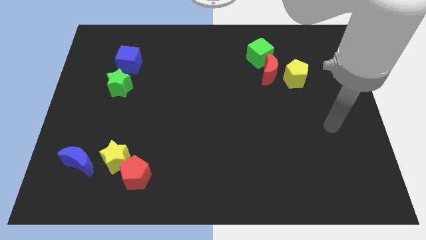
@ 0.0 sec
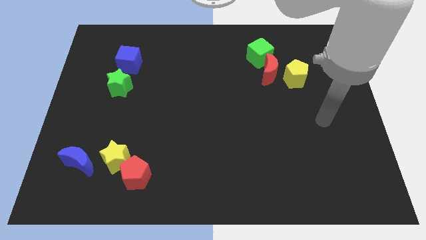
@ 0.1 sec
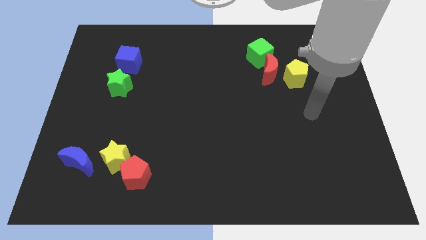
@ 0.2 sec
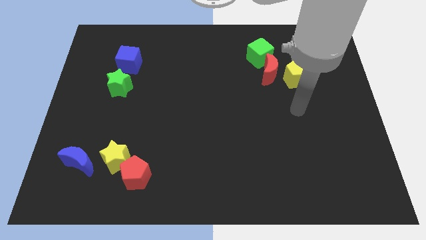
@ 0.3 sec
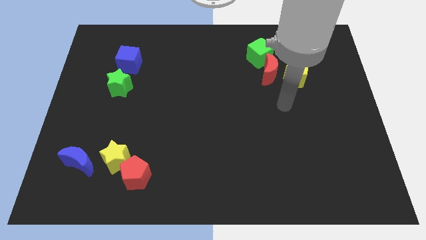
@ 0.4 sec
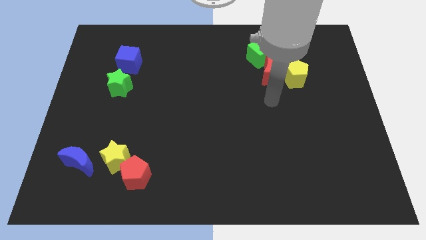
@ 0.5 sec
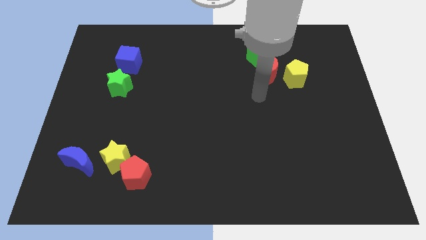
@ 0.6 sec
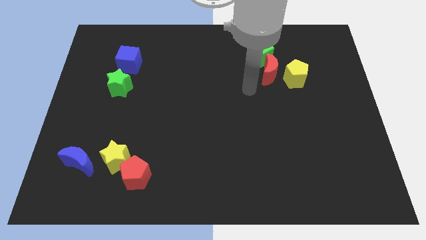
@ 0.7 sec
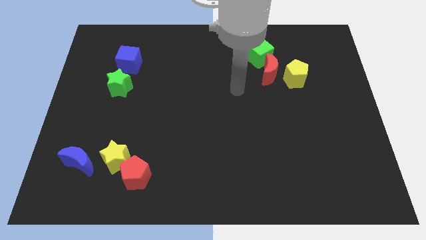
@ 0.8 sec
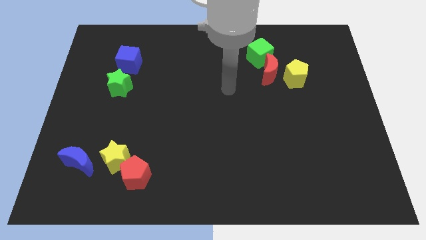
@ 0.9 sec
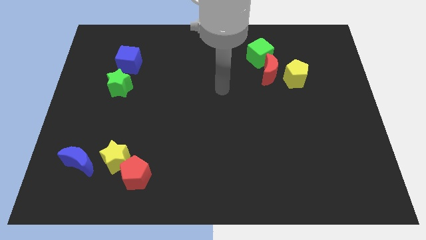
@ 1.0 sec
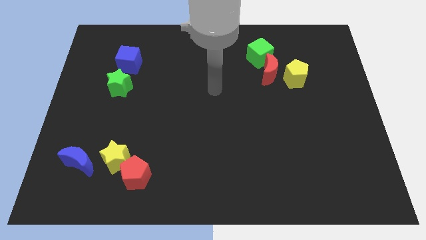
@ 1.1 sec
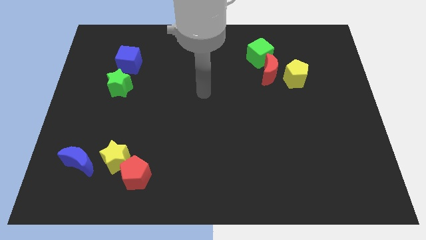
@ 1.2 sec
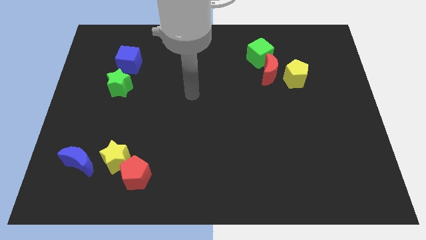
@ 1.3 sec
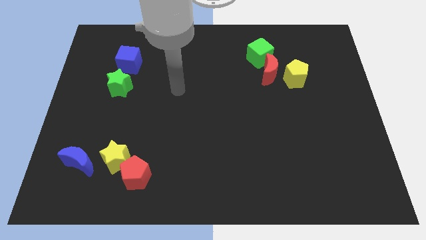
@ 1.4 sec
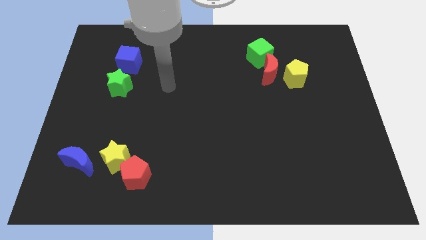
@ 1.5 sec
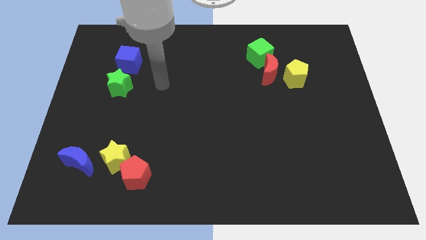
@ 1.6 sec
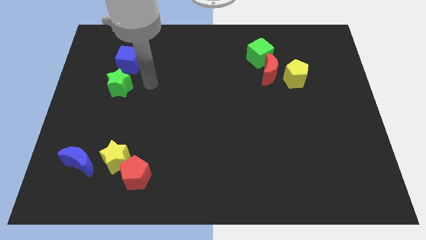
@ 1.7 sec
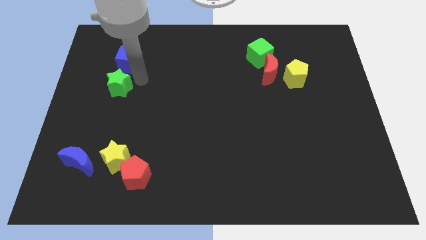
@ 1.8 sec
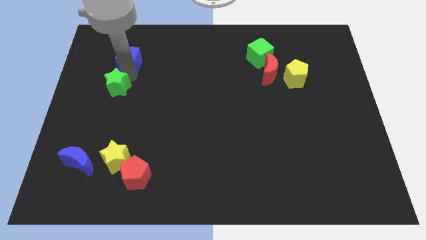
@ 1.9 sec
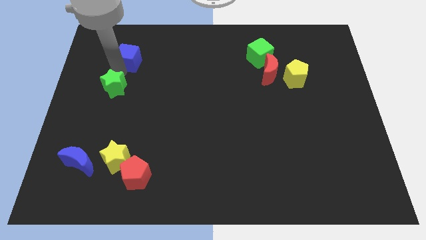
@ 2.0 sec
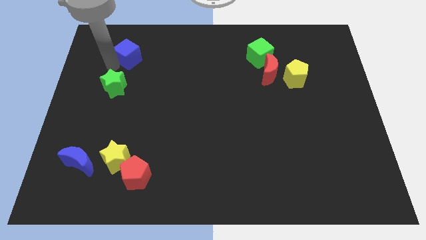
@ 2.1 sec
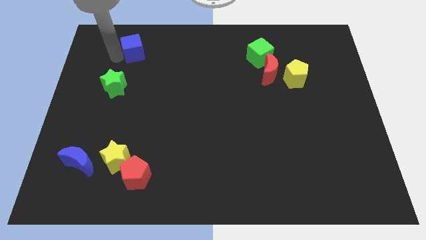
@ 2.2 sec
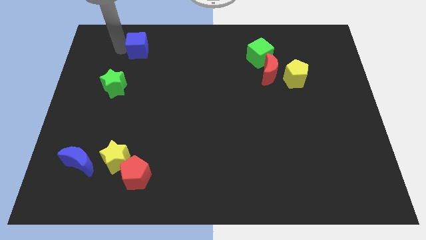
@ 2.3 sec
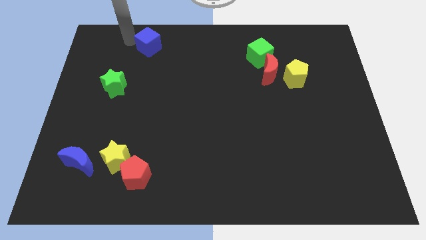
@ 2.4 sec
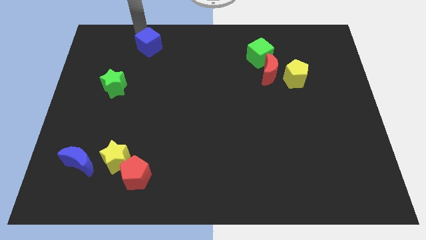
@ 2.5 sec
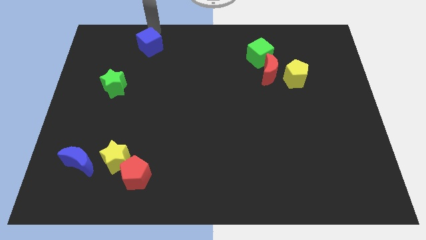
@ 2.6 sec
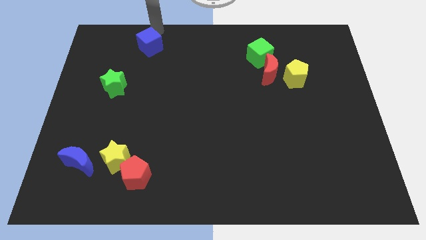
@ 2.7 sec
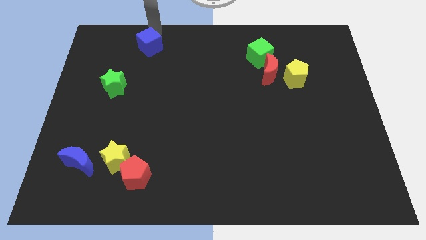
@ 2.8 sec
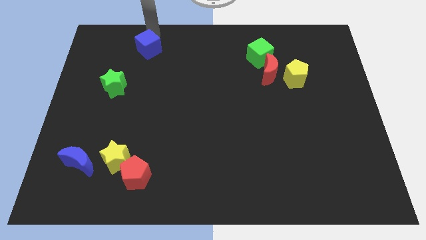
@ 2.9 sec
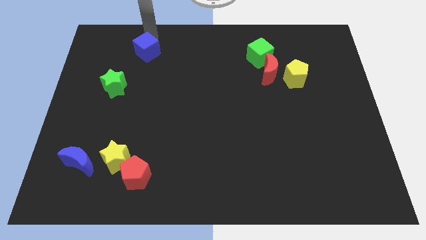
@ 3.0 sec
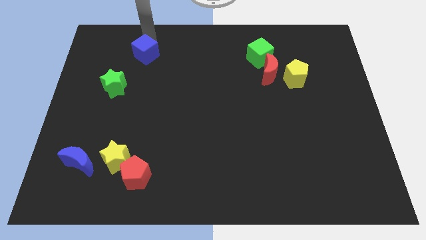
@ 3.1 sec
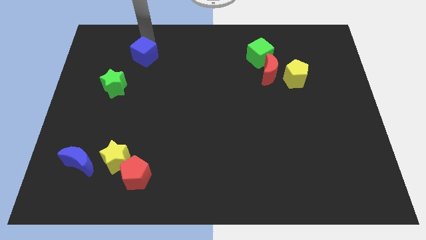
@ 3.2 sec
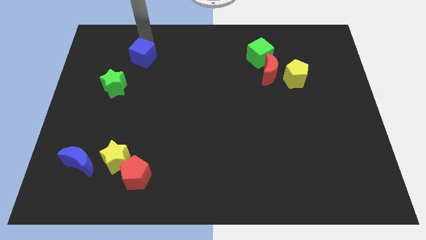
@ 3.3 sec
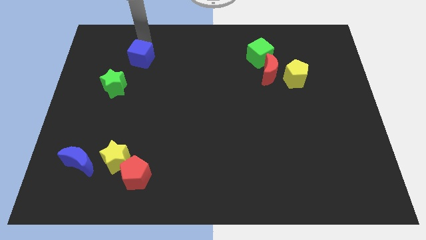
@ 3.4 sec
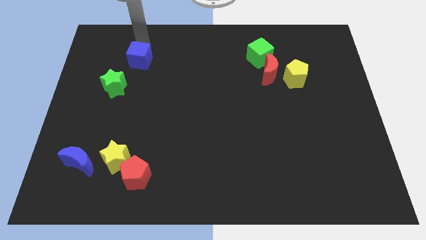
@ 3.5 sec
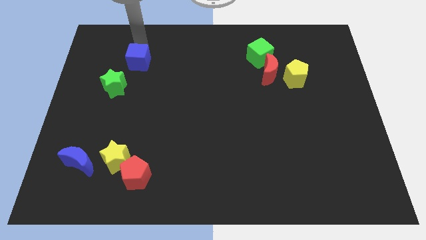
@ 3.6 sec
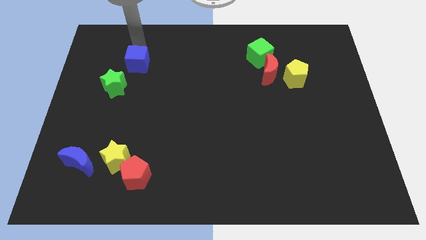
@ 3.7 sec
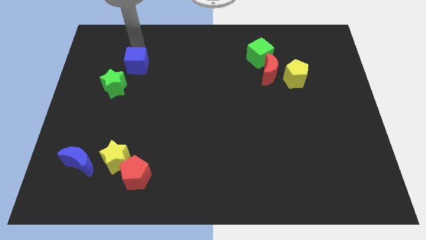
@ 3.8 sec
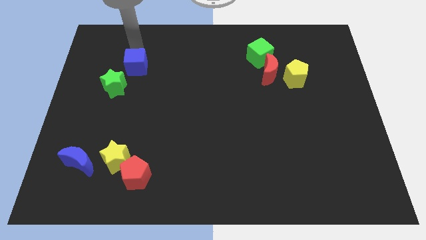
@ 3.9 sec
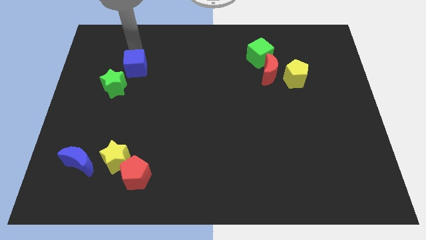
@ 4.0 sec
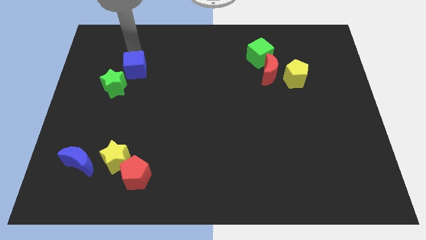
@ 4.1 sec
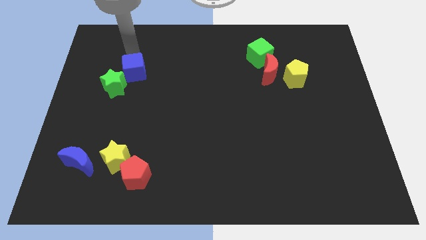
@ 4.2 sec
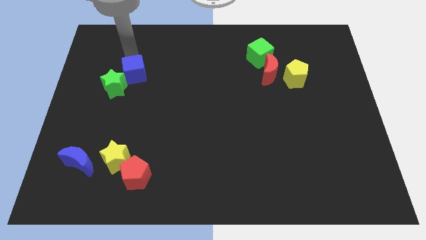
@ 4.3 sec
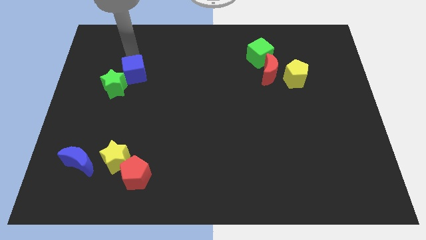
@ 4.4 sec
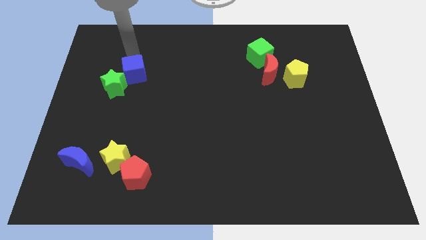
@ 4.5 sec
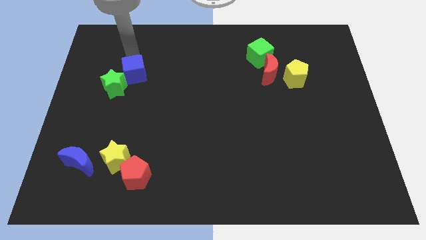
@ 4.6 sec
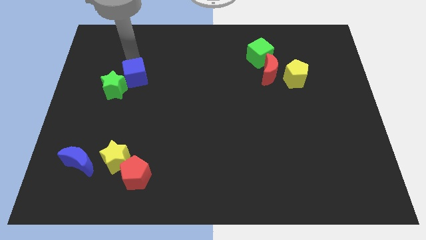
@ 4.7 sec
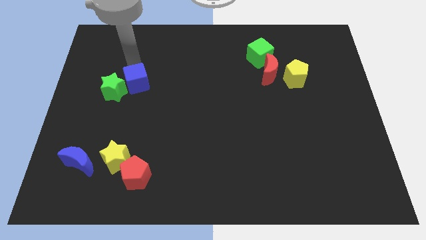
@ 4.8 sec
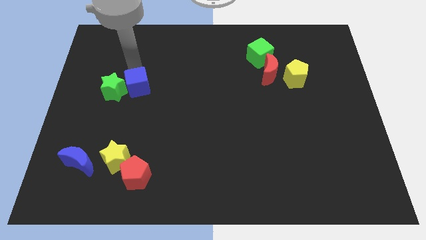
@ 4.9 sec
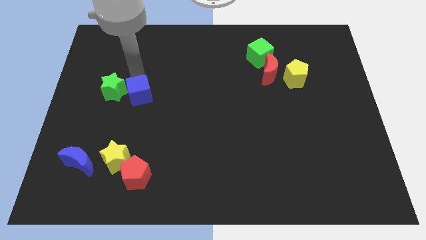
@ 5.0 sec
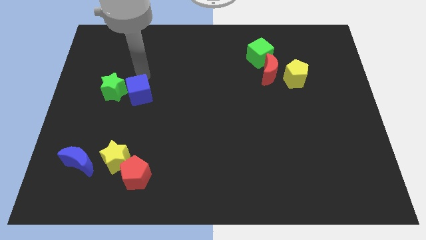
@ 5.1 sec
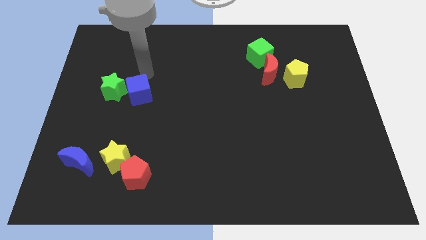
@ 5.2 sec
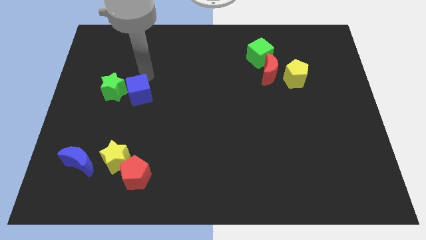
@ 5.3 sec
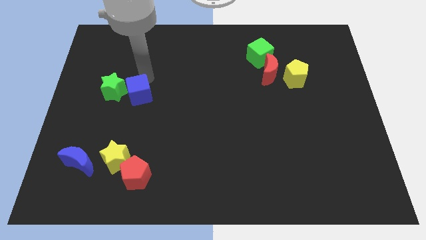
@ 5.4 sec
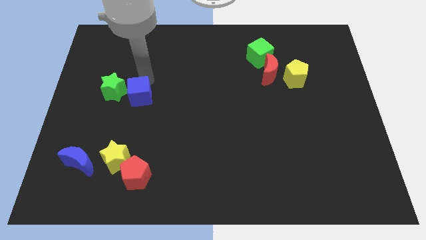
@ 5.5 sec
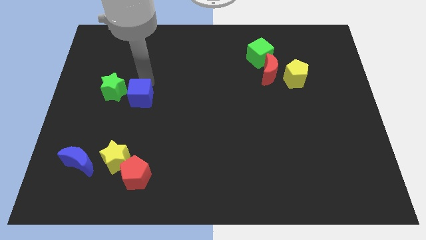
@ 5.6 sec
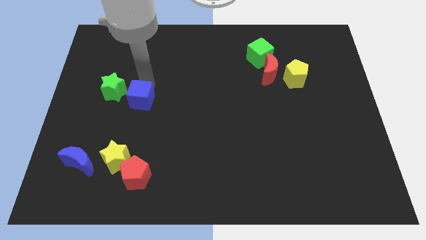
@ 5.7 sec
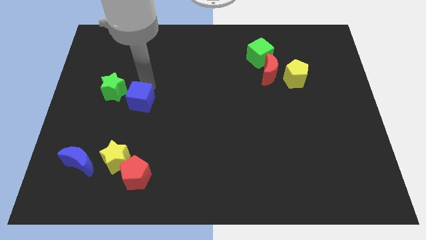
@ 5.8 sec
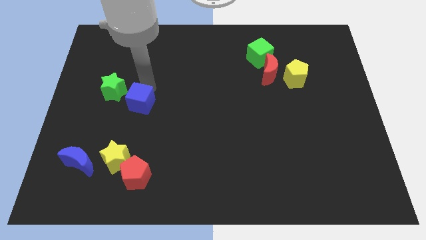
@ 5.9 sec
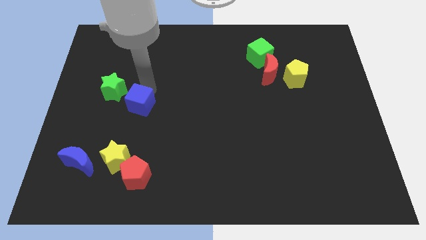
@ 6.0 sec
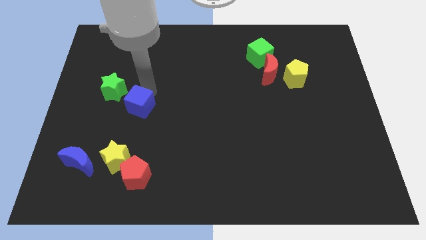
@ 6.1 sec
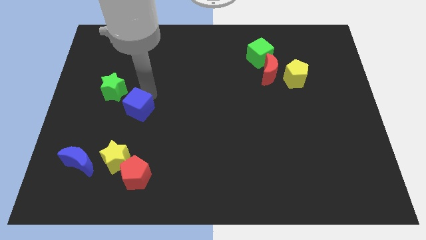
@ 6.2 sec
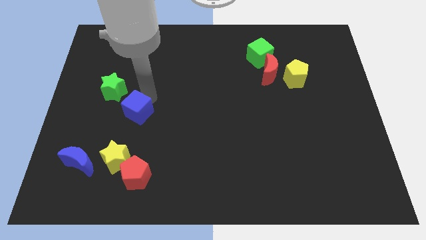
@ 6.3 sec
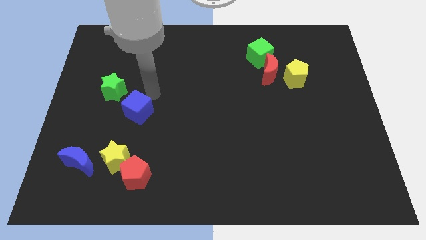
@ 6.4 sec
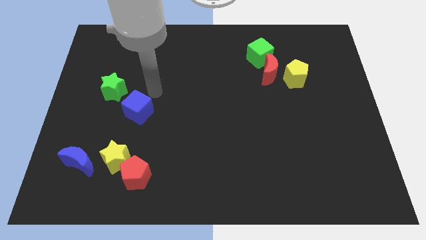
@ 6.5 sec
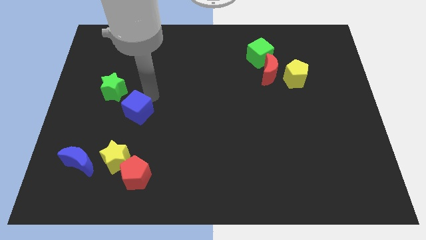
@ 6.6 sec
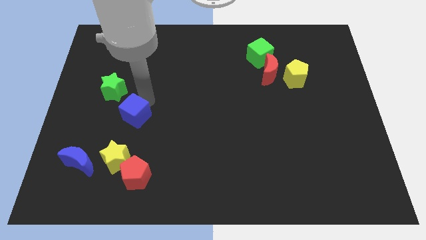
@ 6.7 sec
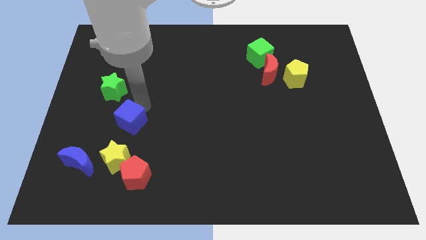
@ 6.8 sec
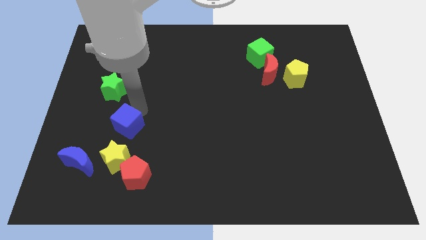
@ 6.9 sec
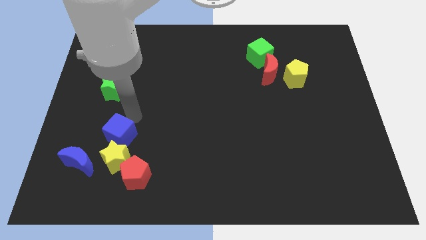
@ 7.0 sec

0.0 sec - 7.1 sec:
slide the blue cube diagonally up and to the left of the red pentagon
